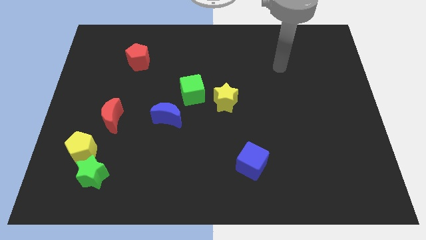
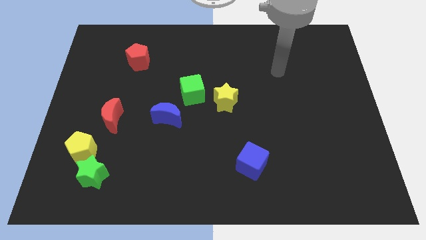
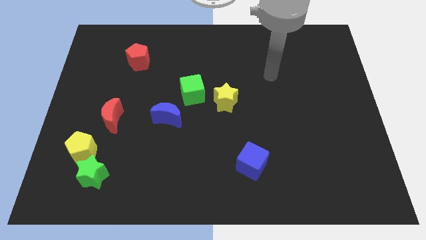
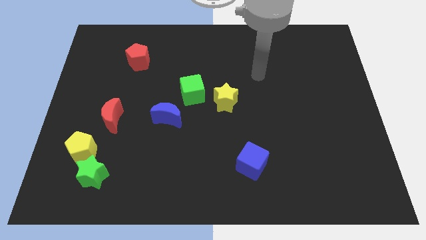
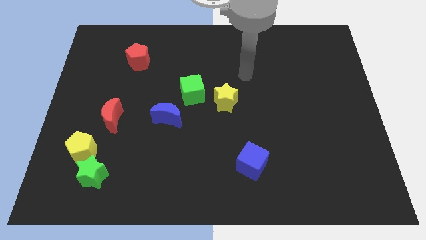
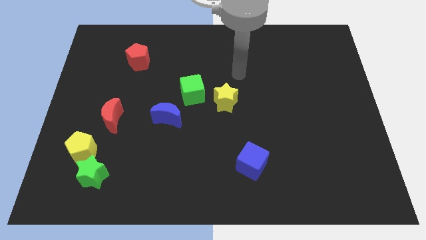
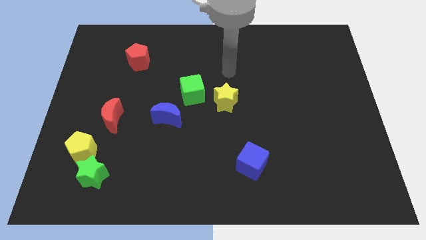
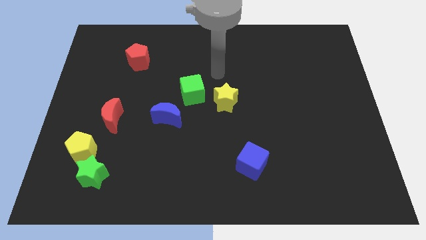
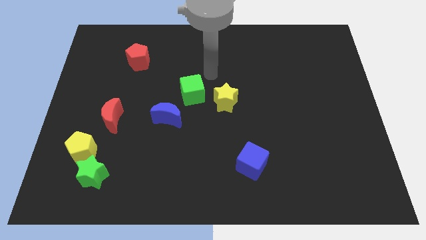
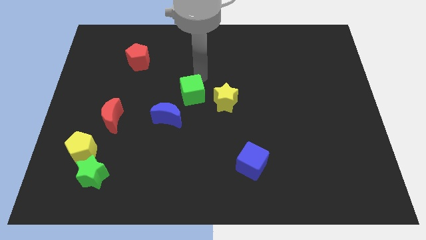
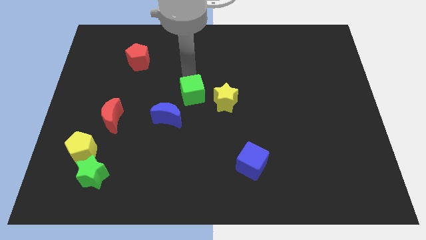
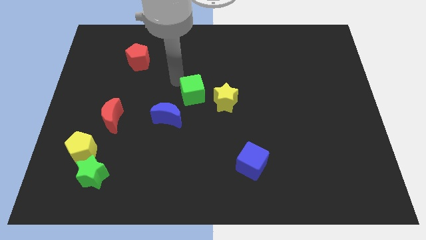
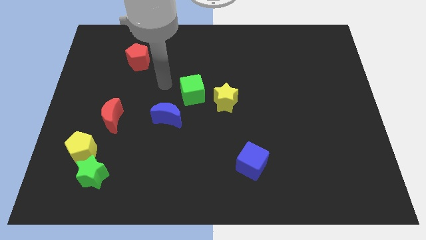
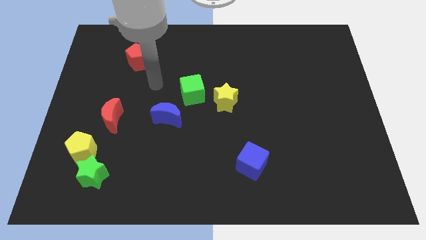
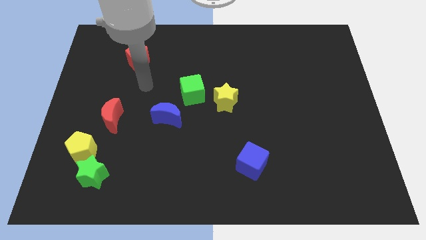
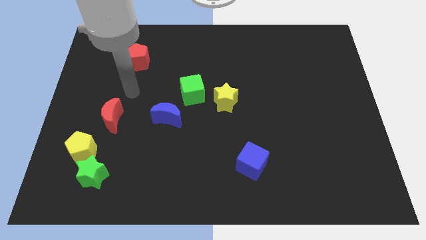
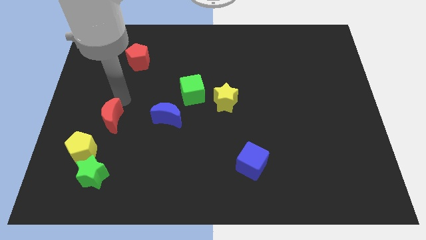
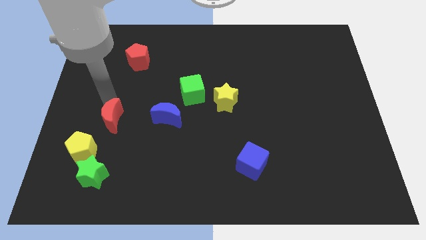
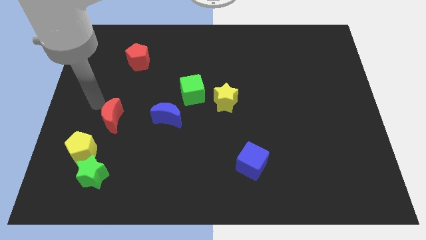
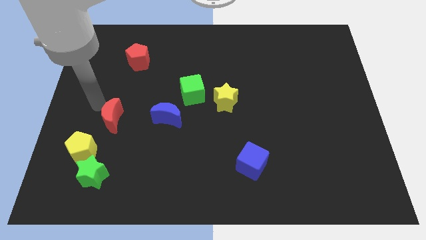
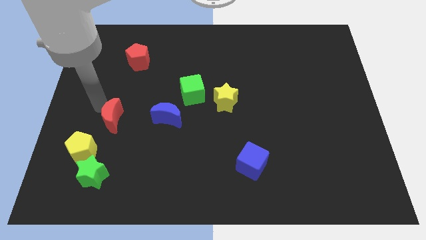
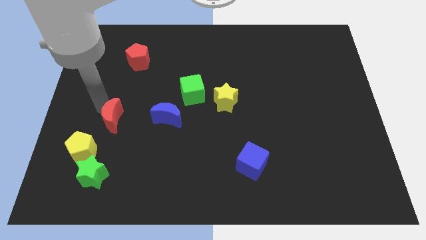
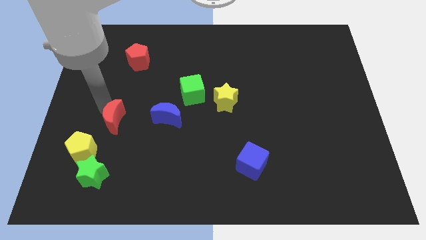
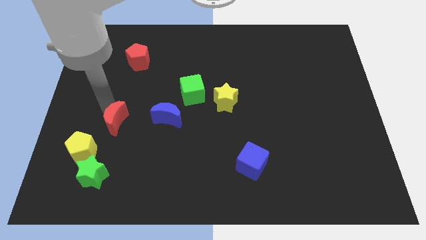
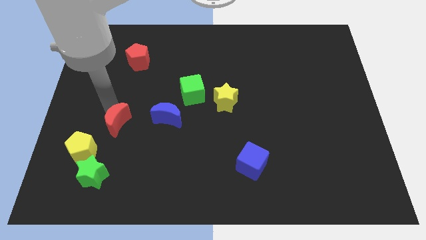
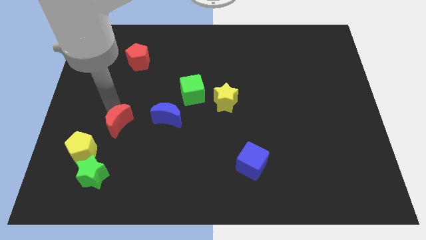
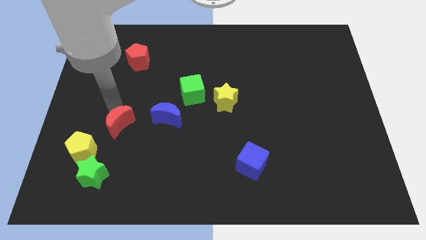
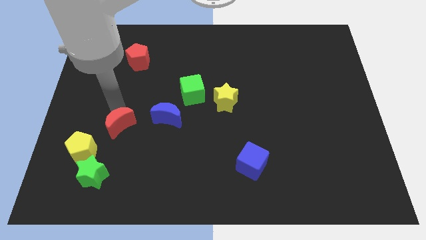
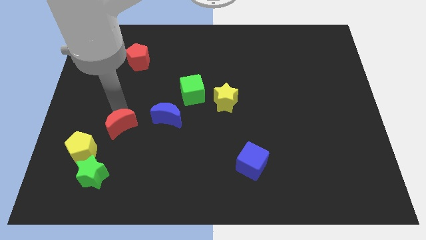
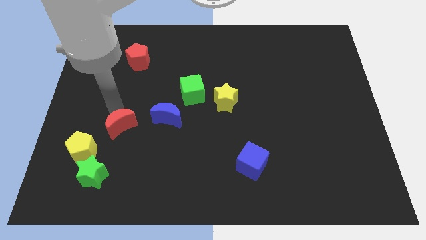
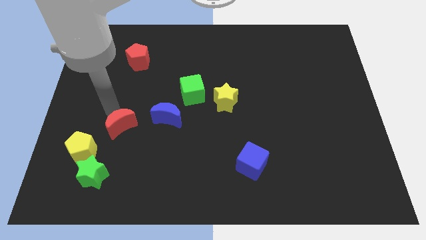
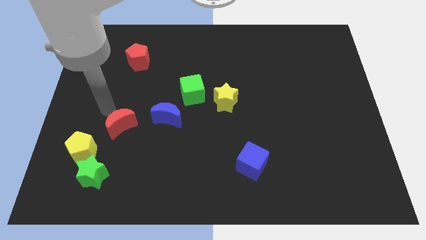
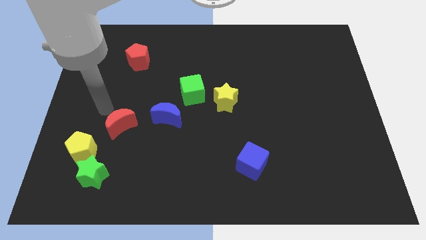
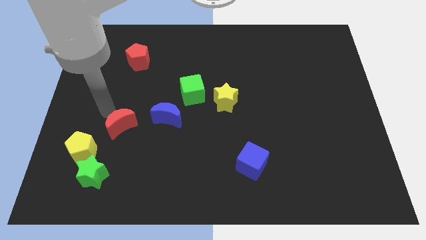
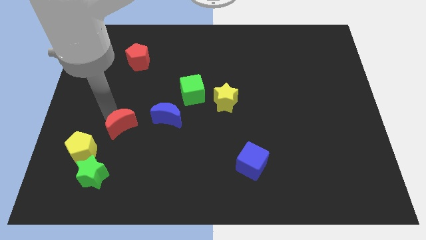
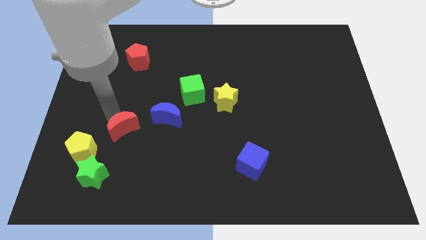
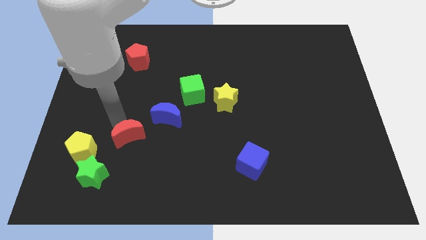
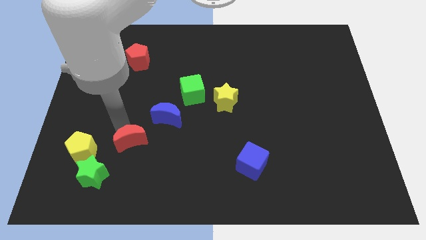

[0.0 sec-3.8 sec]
move the red moon a bit down and then to the right

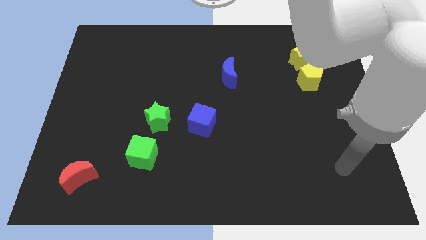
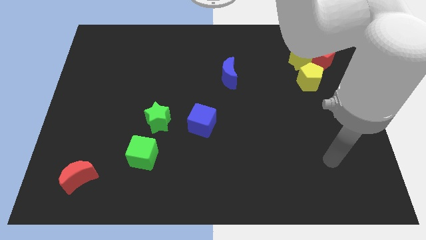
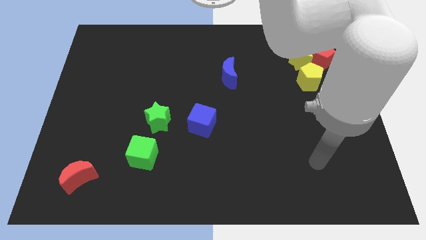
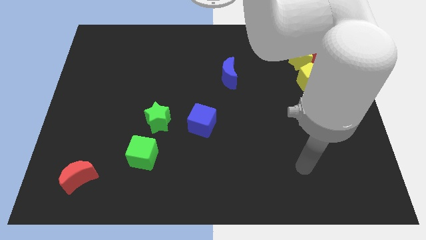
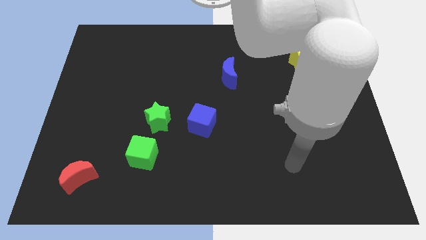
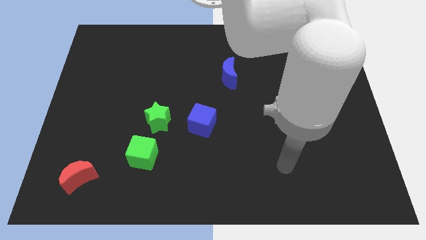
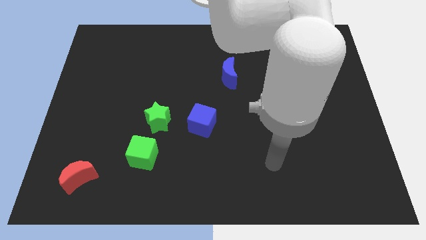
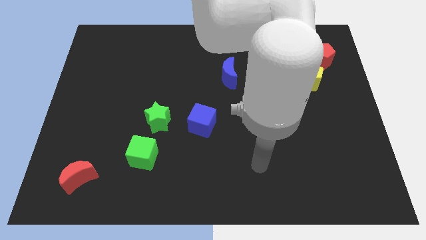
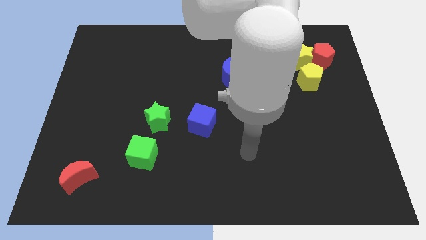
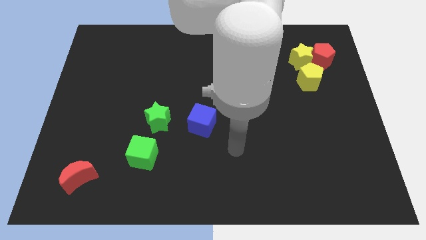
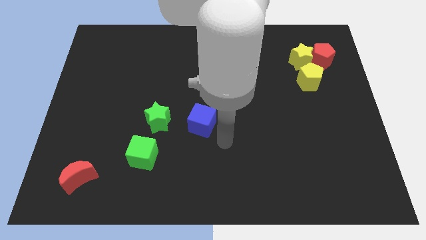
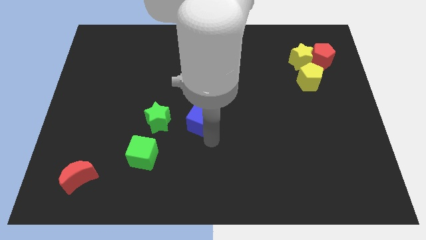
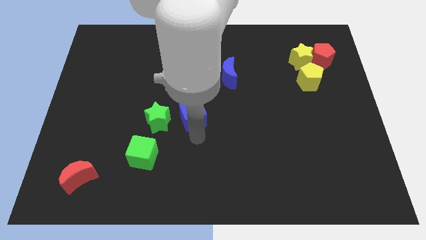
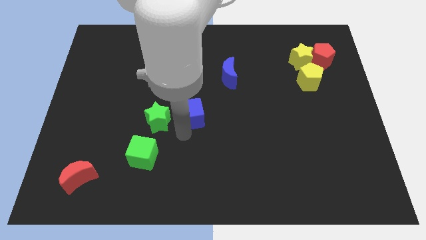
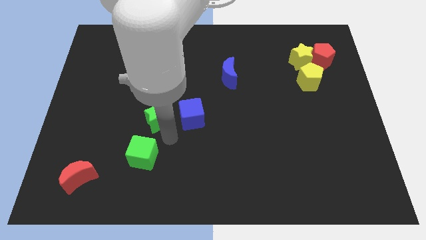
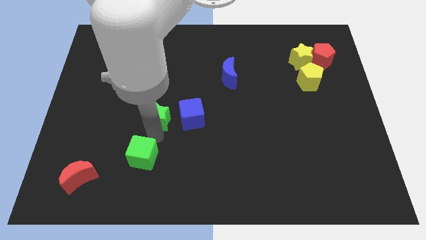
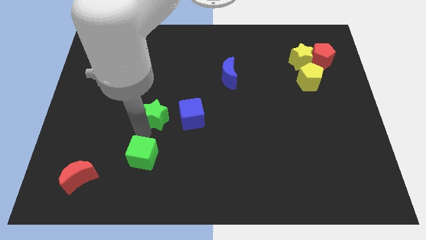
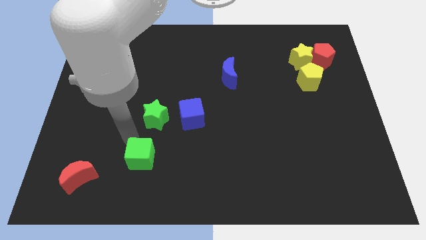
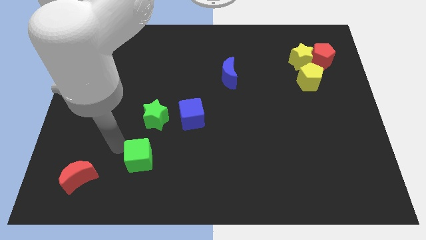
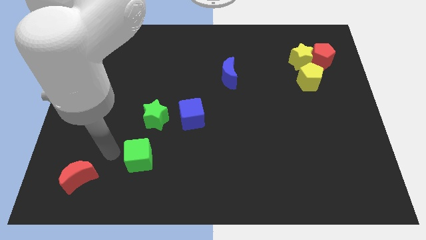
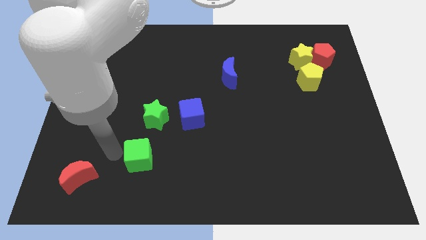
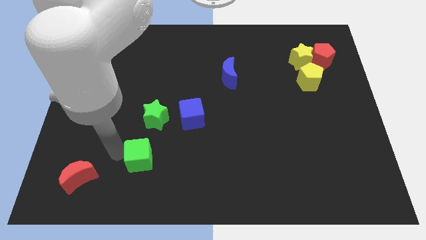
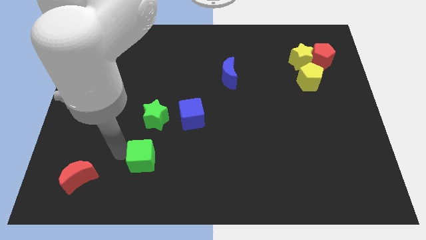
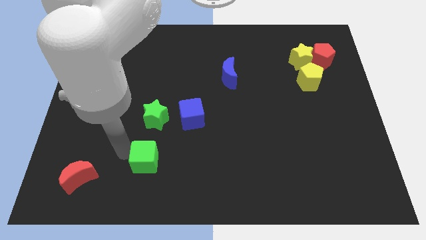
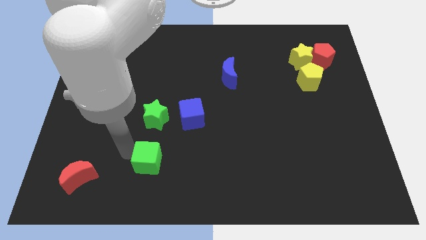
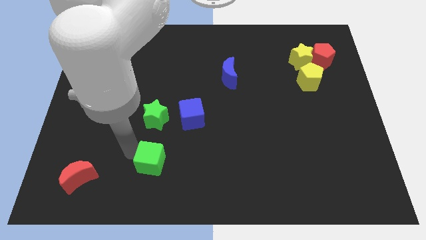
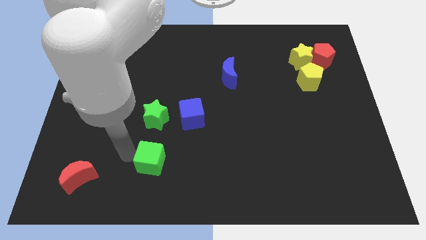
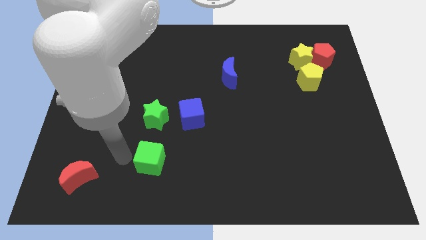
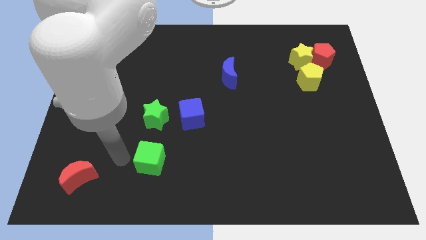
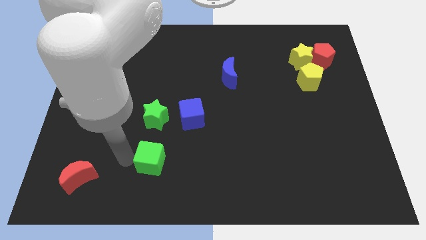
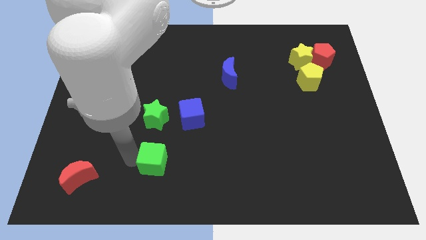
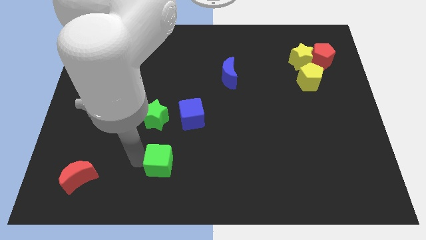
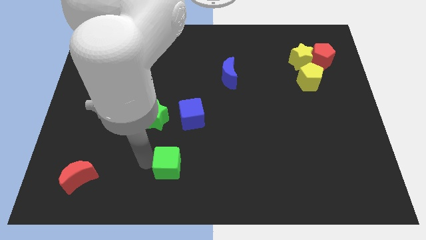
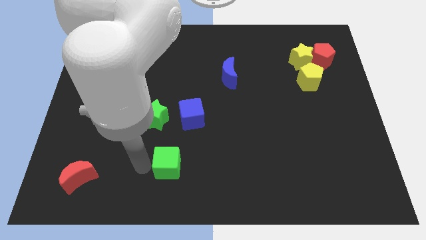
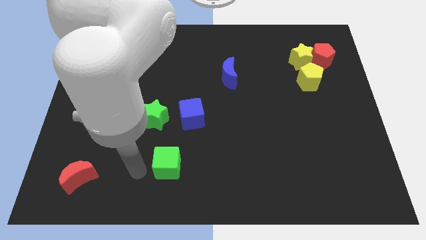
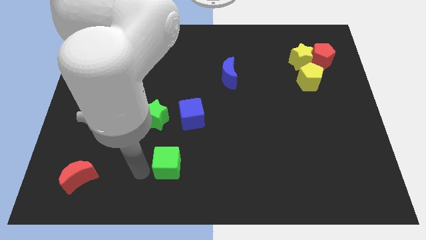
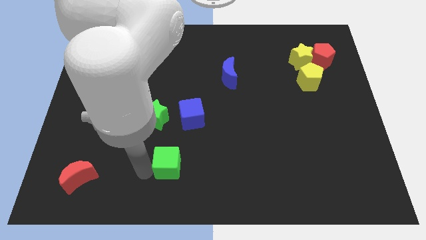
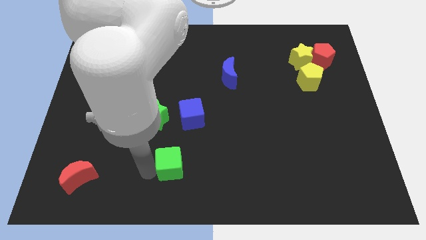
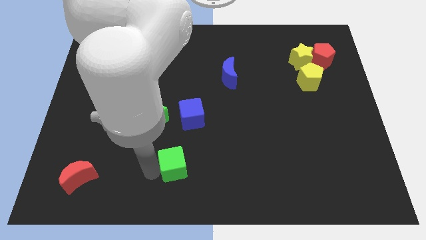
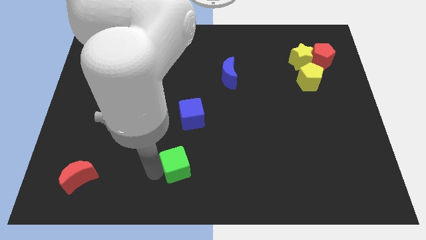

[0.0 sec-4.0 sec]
slightly move the green cube right

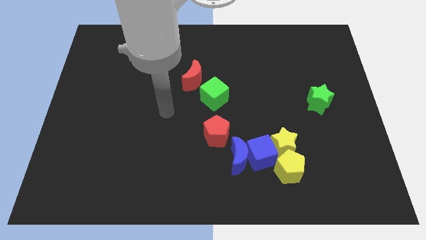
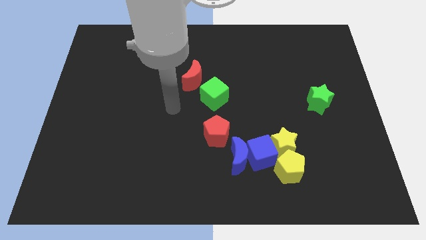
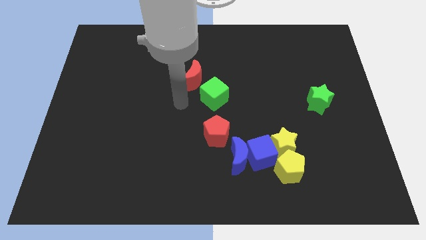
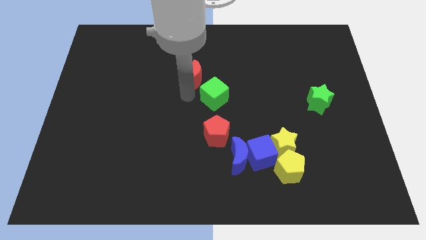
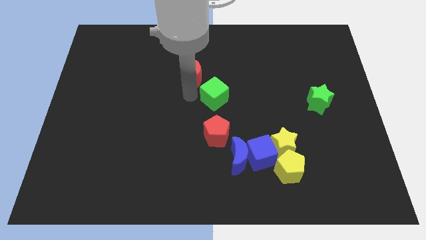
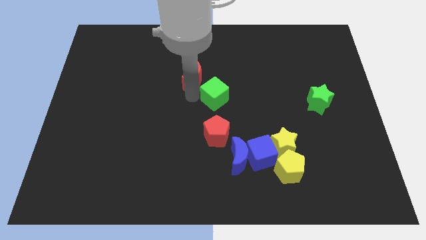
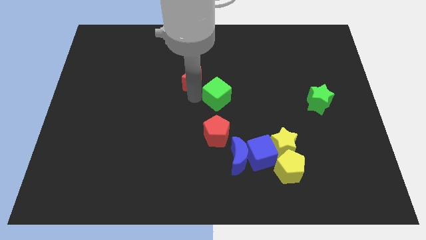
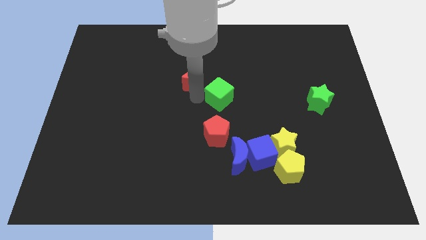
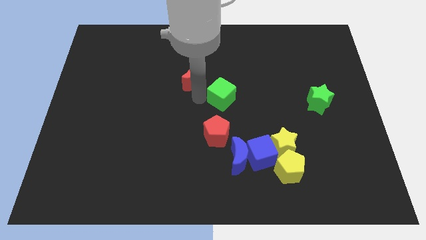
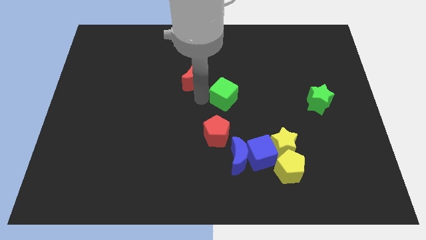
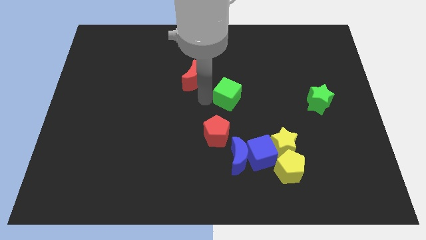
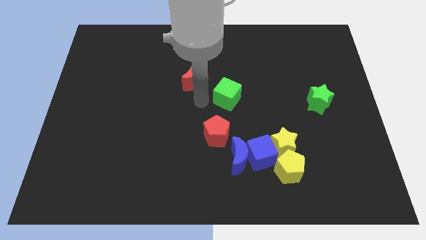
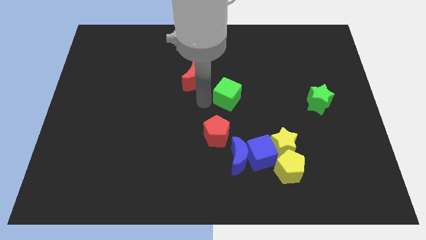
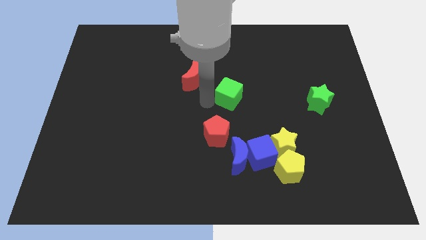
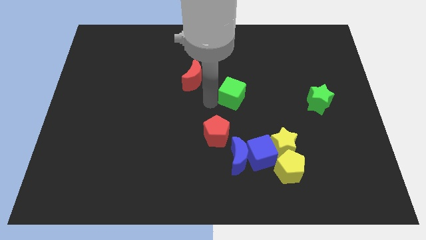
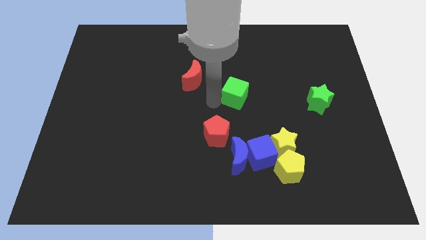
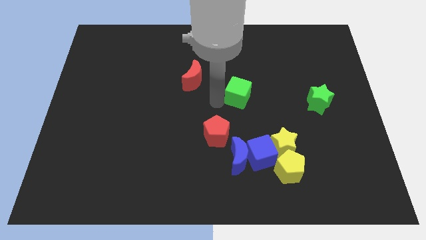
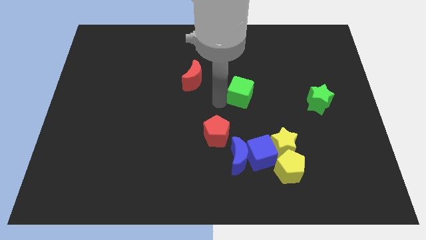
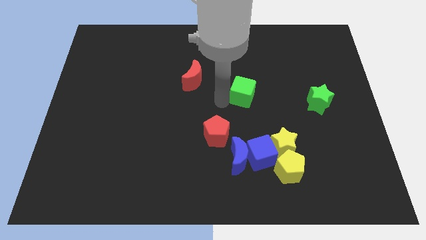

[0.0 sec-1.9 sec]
slightly push the green cube to the right
